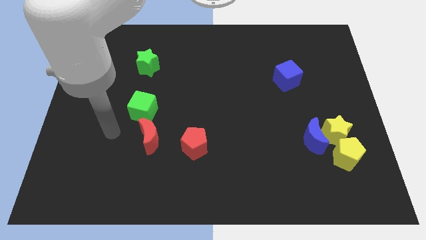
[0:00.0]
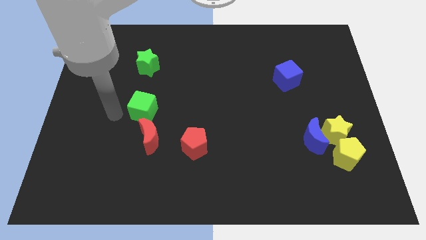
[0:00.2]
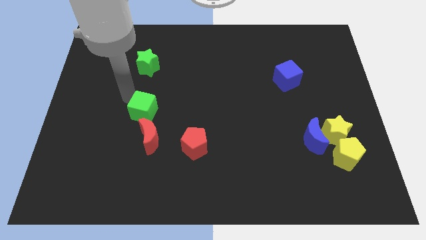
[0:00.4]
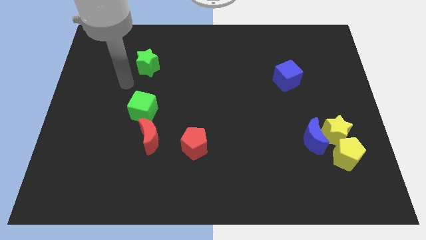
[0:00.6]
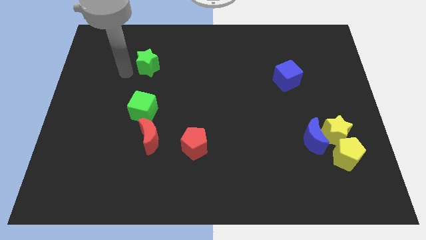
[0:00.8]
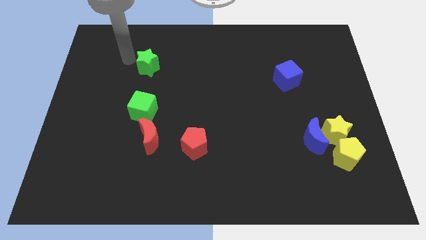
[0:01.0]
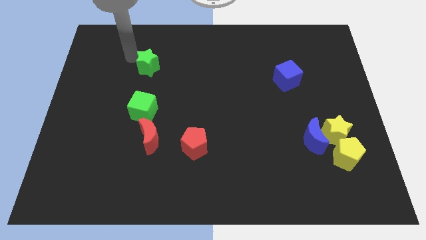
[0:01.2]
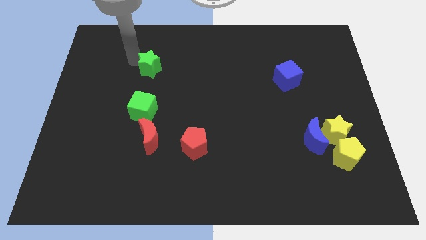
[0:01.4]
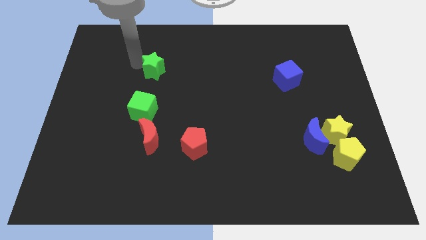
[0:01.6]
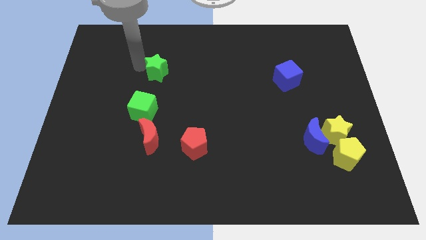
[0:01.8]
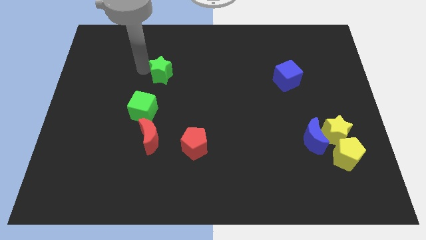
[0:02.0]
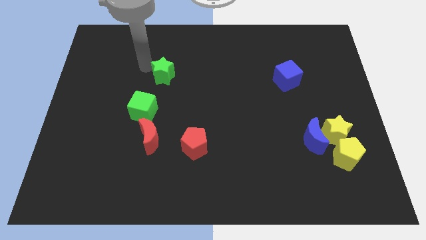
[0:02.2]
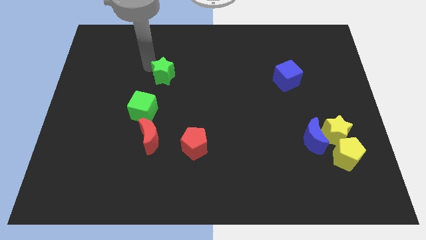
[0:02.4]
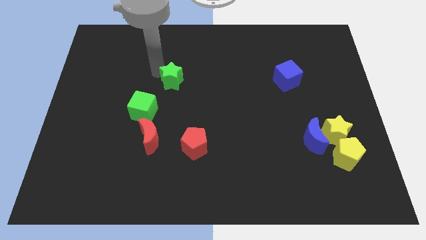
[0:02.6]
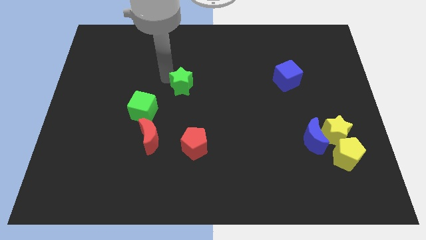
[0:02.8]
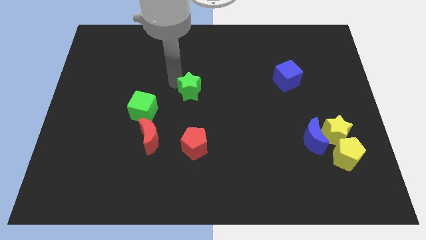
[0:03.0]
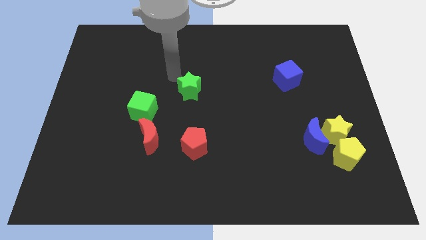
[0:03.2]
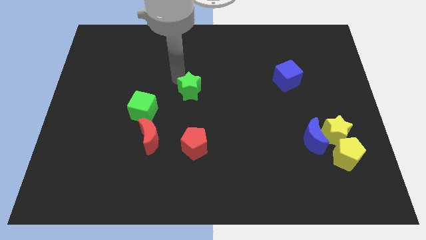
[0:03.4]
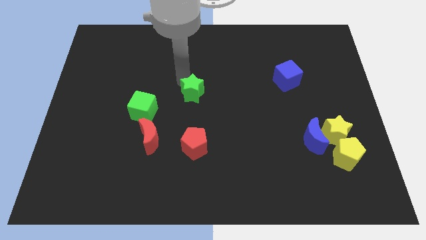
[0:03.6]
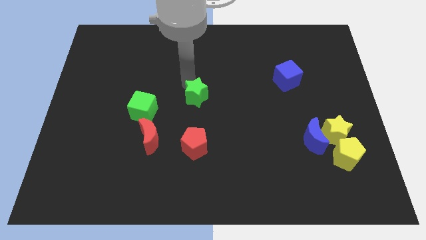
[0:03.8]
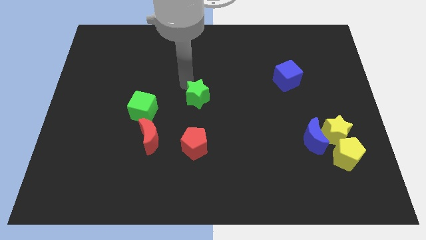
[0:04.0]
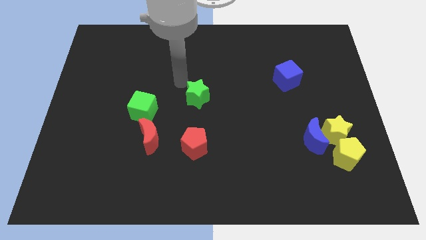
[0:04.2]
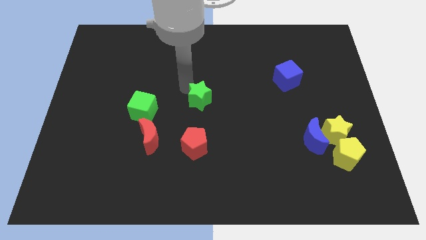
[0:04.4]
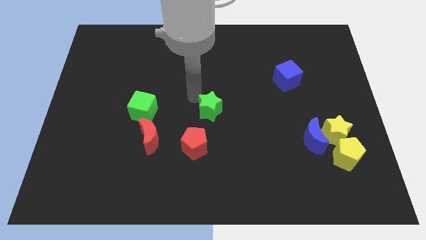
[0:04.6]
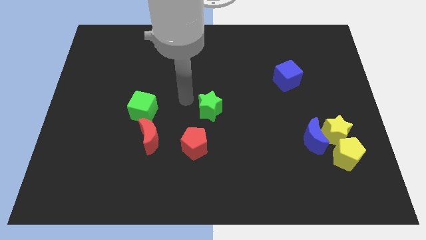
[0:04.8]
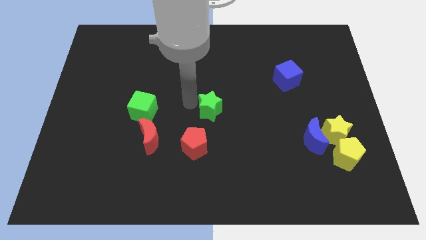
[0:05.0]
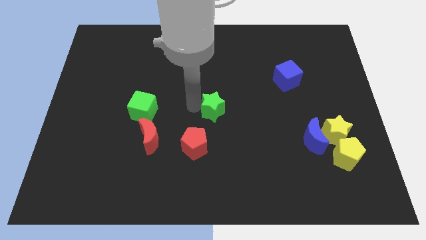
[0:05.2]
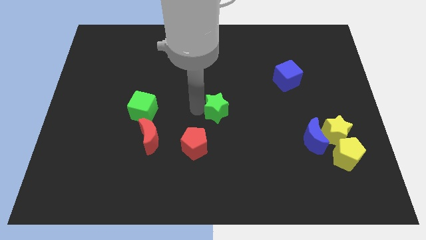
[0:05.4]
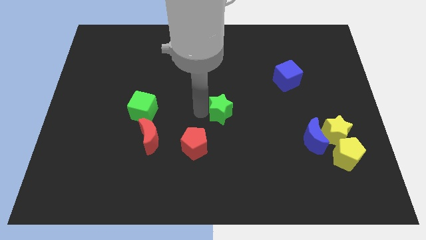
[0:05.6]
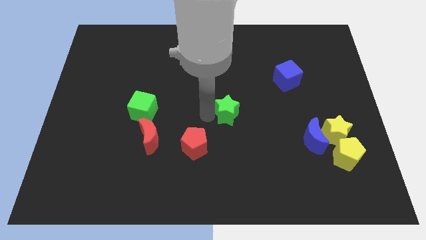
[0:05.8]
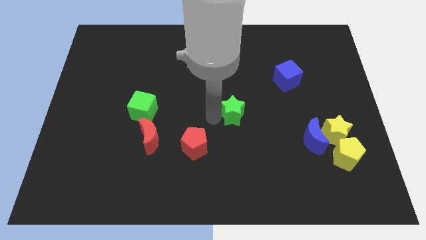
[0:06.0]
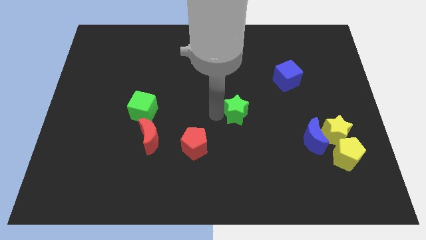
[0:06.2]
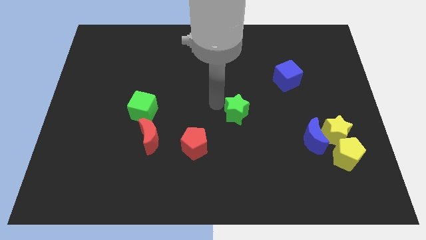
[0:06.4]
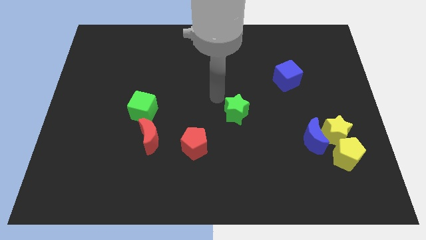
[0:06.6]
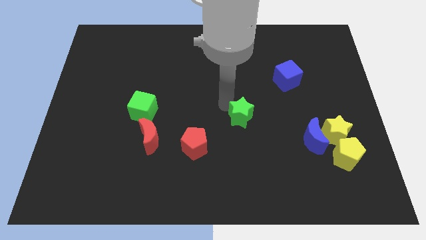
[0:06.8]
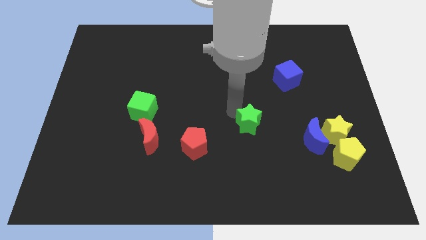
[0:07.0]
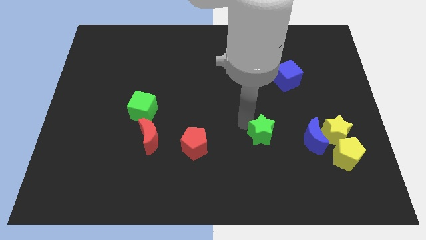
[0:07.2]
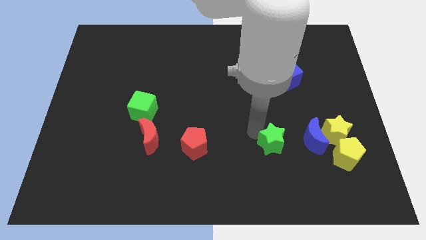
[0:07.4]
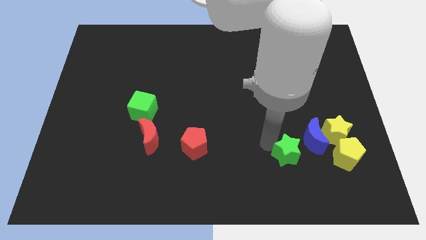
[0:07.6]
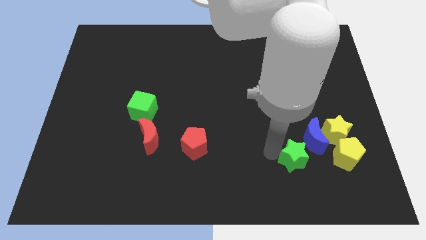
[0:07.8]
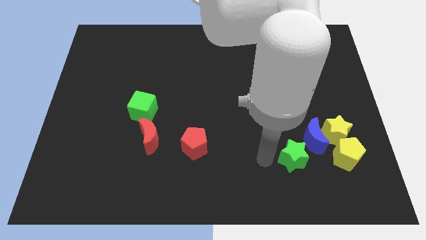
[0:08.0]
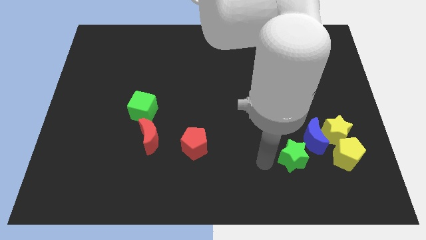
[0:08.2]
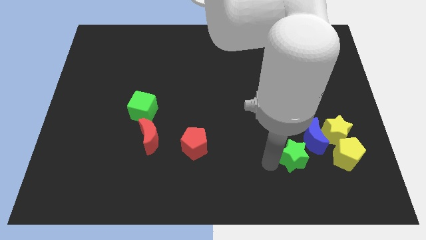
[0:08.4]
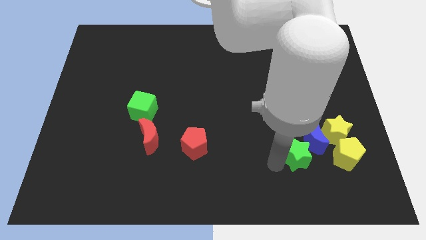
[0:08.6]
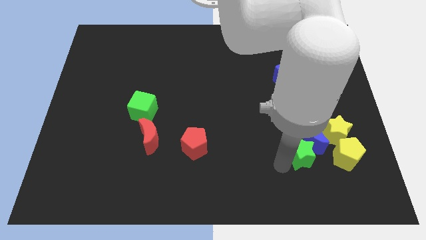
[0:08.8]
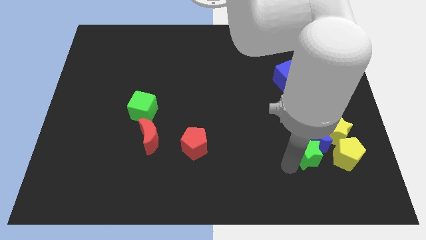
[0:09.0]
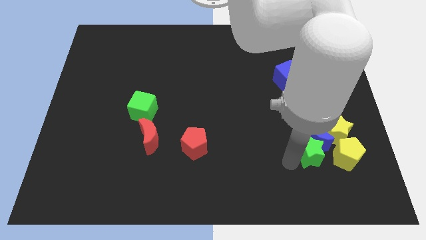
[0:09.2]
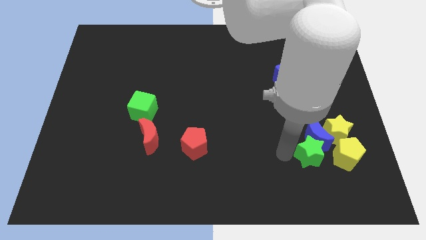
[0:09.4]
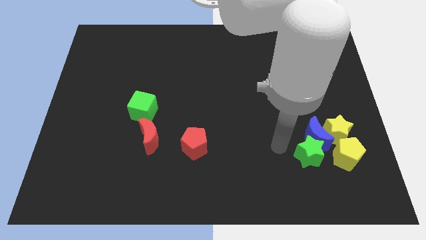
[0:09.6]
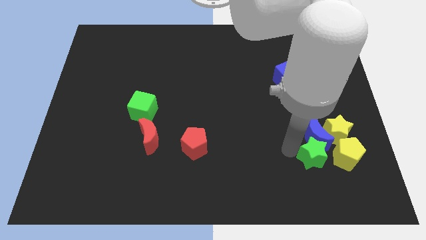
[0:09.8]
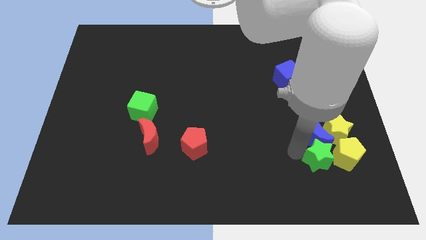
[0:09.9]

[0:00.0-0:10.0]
put the green star towards the yellow pentagon

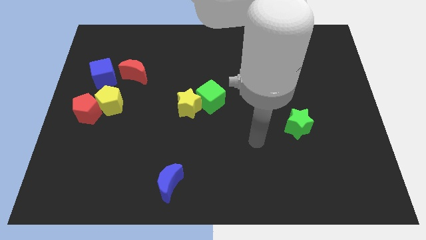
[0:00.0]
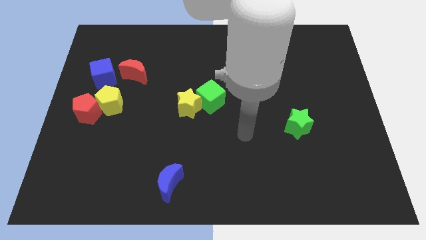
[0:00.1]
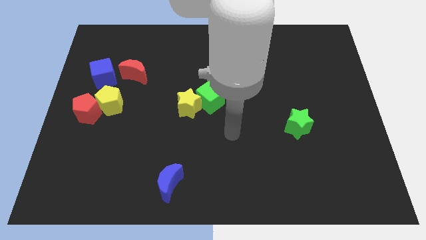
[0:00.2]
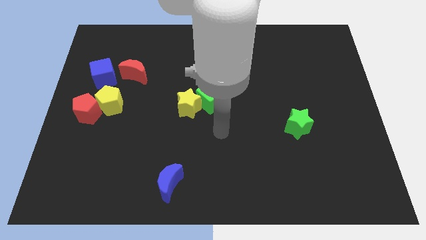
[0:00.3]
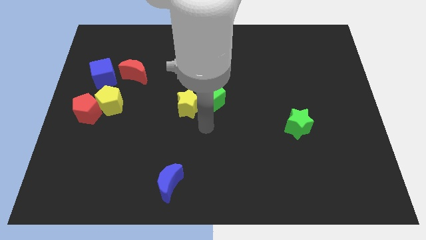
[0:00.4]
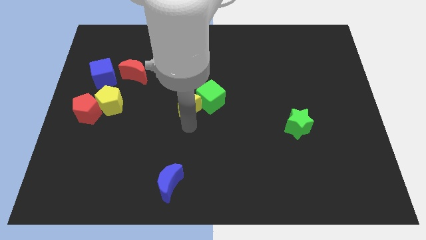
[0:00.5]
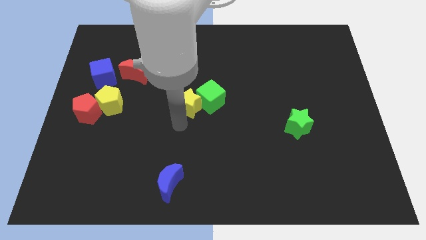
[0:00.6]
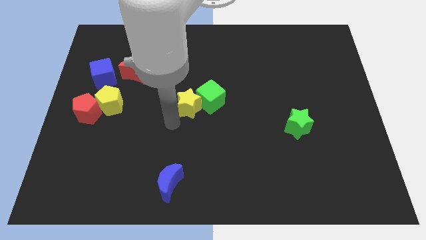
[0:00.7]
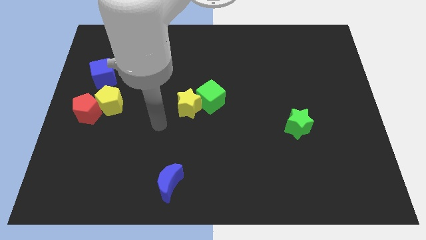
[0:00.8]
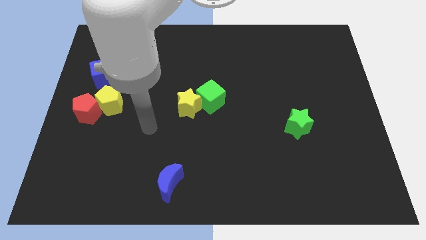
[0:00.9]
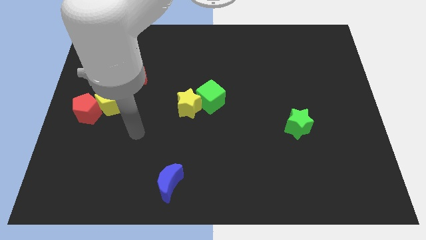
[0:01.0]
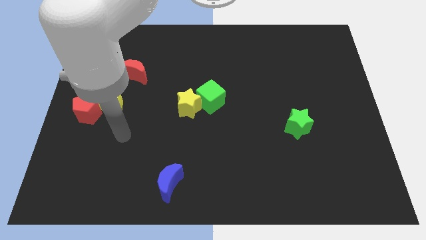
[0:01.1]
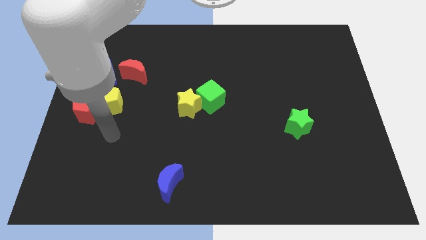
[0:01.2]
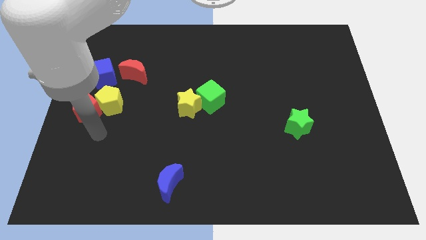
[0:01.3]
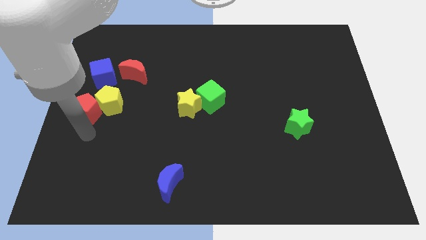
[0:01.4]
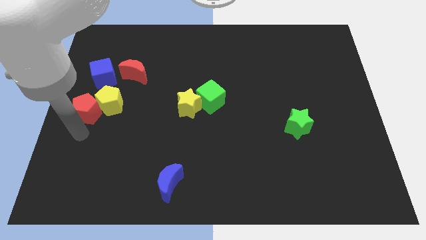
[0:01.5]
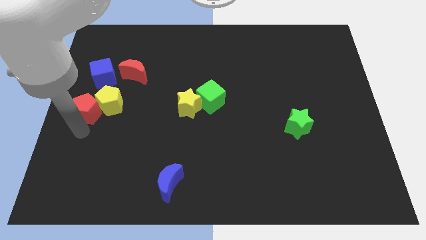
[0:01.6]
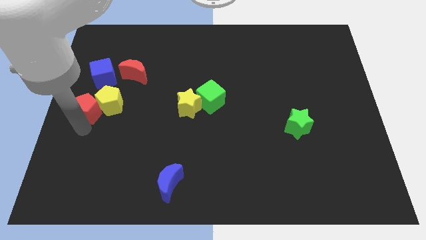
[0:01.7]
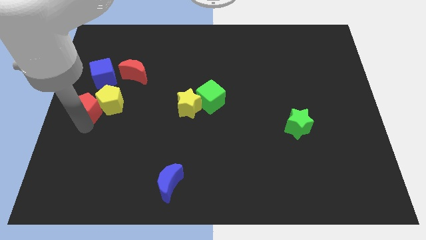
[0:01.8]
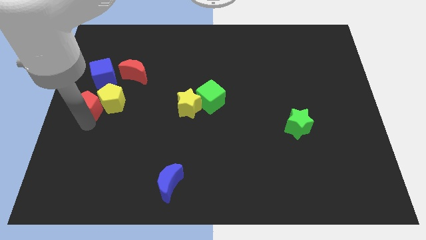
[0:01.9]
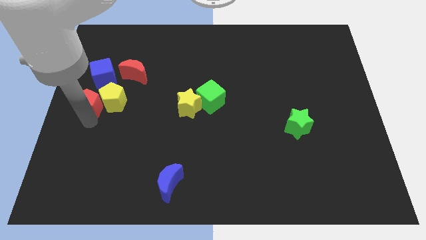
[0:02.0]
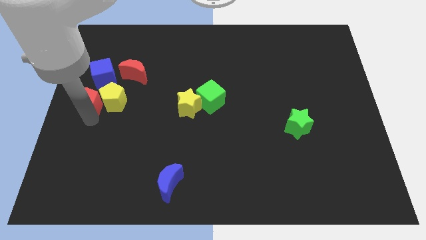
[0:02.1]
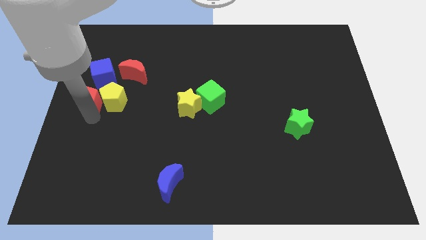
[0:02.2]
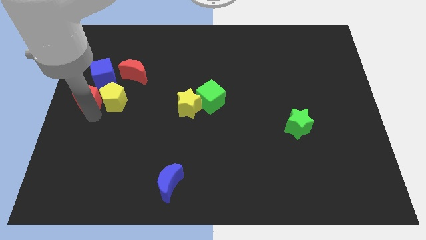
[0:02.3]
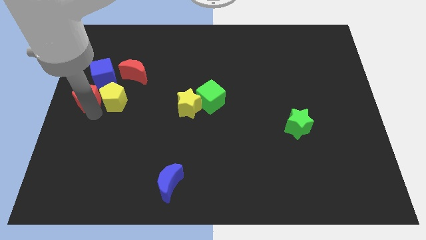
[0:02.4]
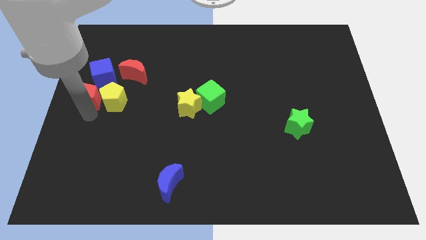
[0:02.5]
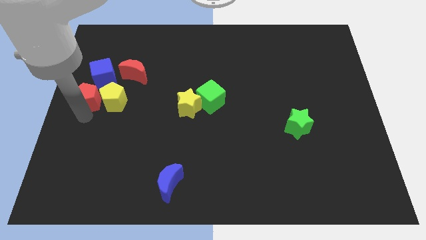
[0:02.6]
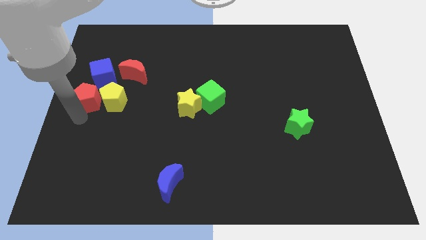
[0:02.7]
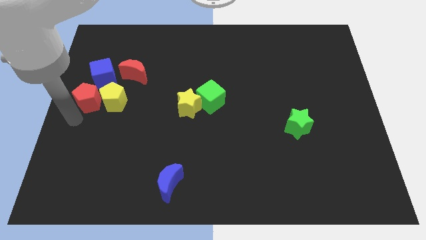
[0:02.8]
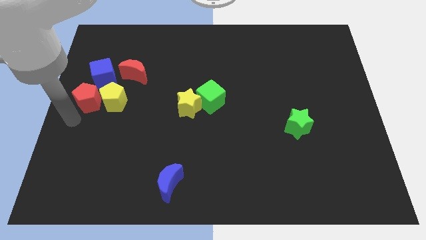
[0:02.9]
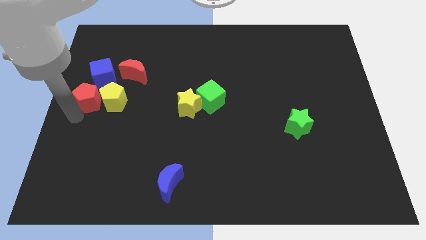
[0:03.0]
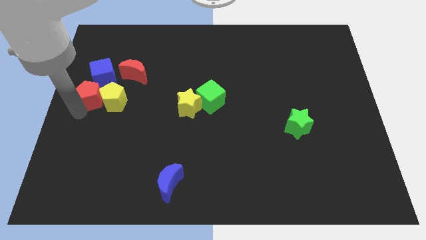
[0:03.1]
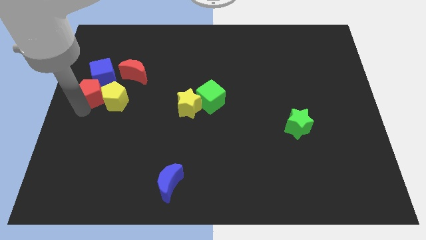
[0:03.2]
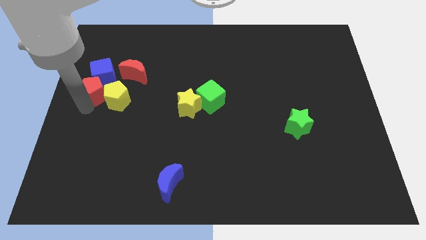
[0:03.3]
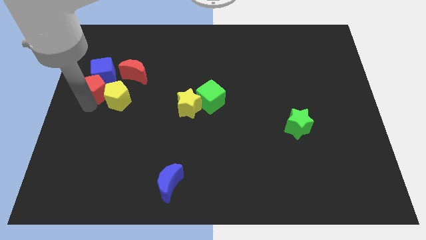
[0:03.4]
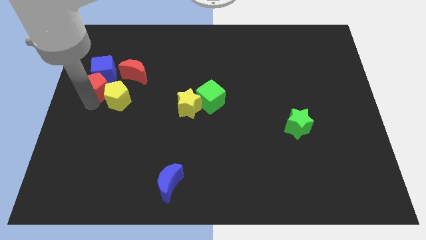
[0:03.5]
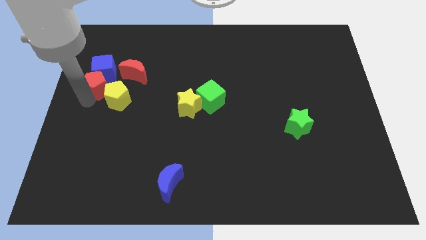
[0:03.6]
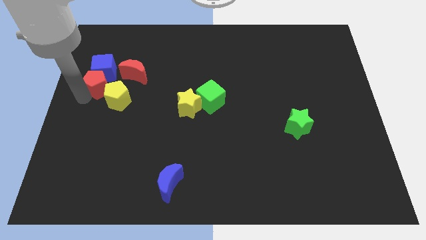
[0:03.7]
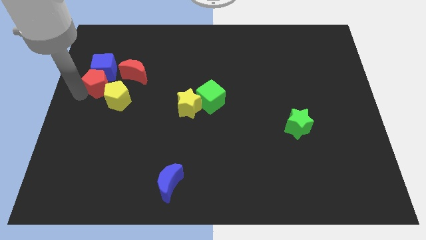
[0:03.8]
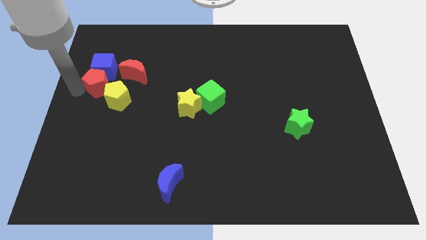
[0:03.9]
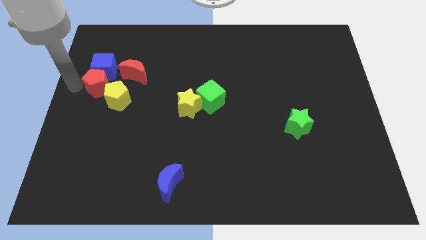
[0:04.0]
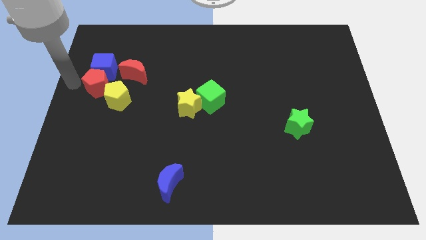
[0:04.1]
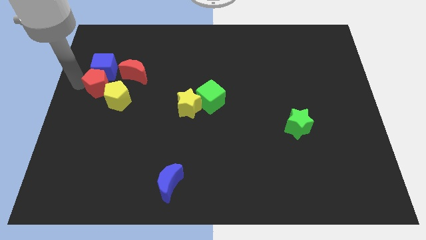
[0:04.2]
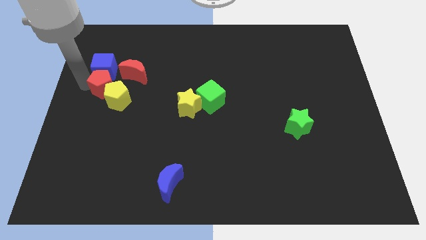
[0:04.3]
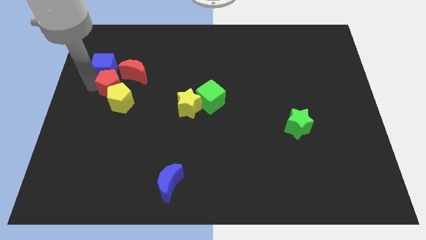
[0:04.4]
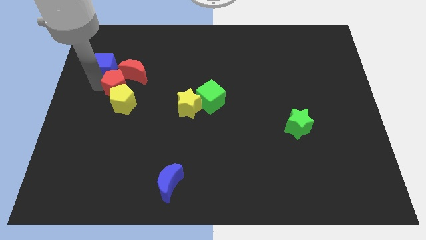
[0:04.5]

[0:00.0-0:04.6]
push the red pentagon next to the red moon
